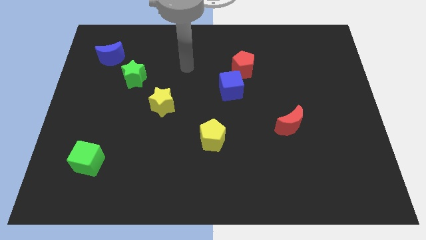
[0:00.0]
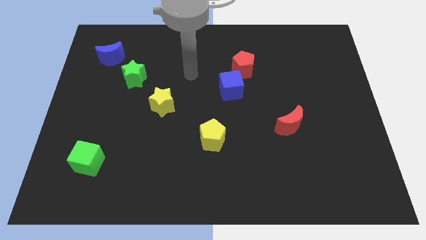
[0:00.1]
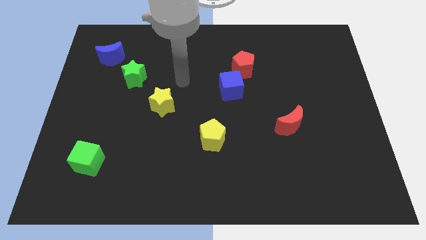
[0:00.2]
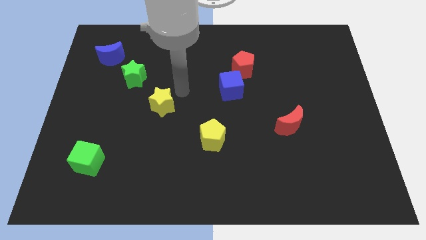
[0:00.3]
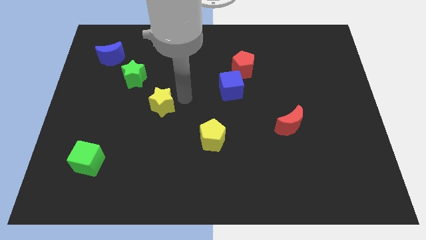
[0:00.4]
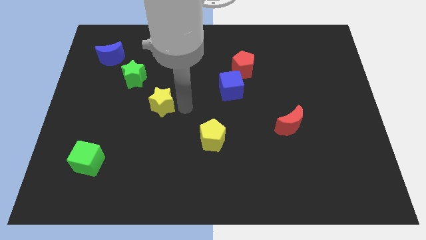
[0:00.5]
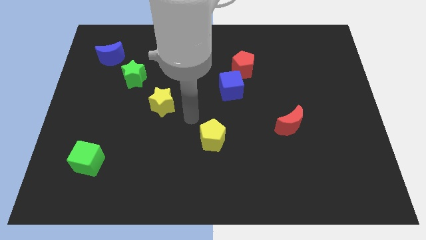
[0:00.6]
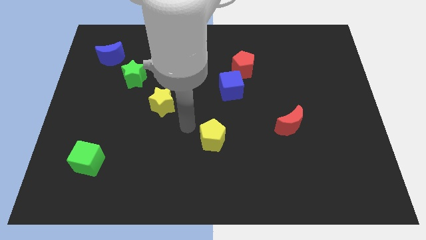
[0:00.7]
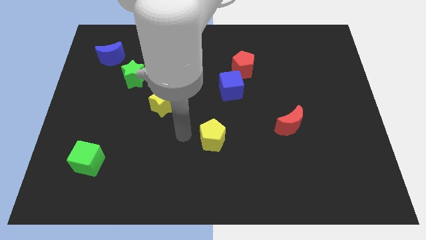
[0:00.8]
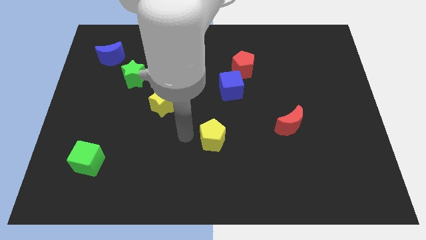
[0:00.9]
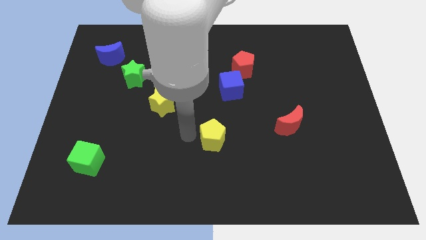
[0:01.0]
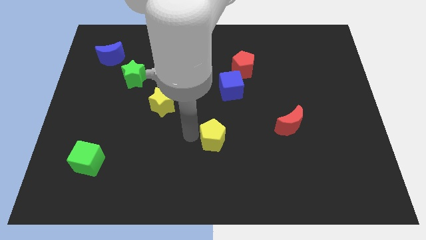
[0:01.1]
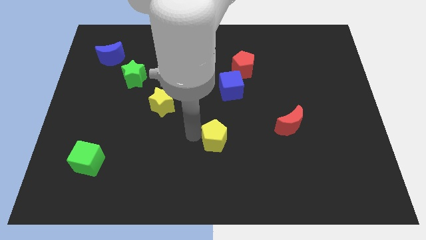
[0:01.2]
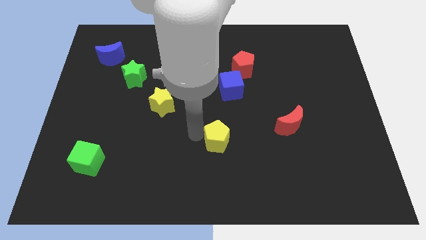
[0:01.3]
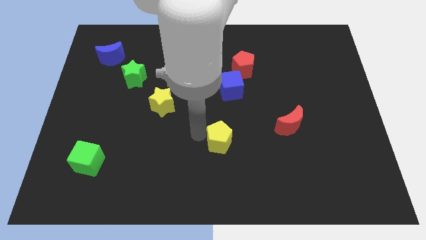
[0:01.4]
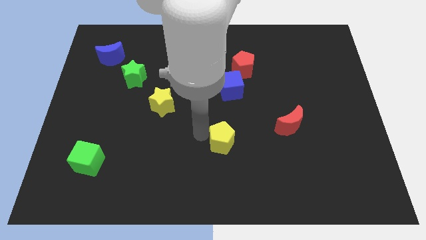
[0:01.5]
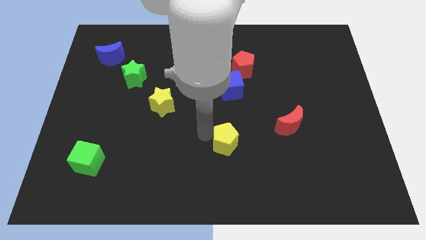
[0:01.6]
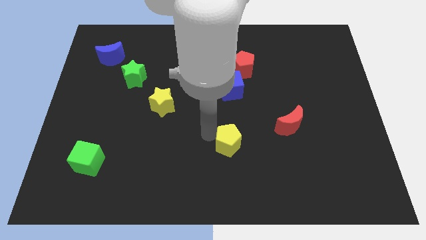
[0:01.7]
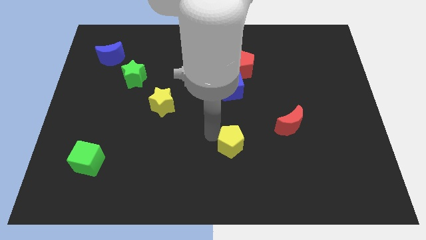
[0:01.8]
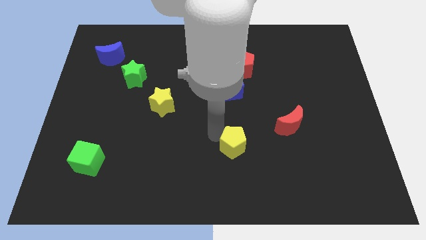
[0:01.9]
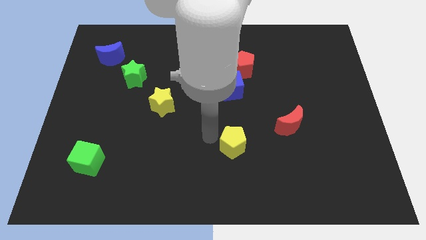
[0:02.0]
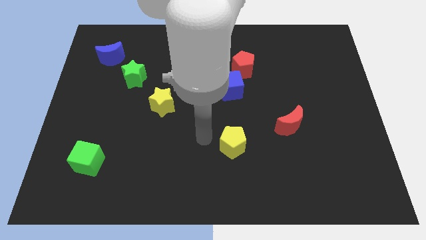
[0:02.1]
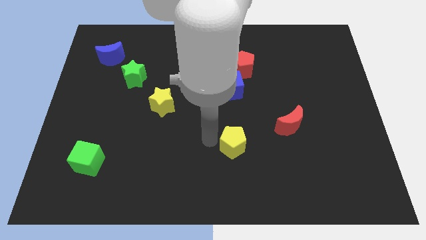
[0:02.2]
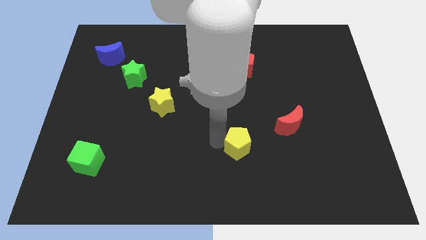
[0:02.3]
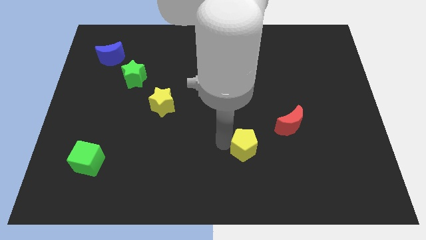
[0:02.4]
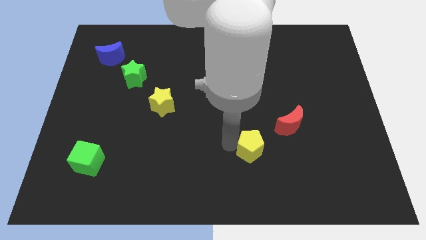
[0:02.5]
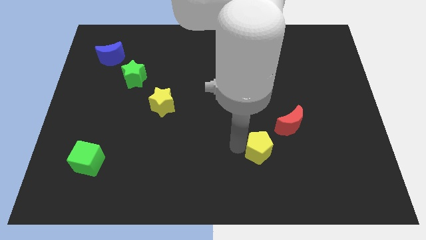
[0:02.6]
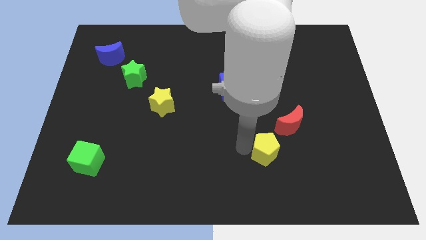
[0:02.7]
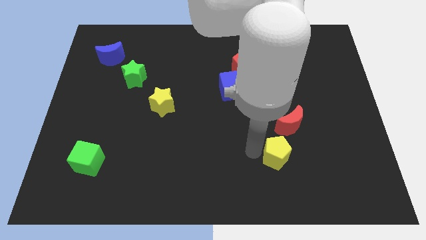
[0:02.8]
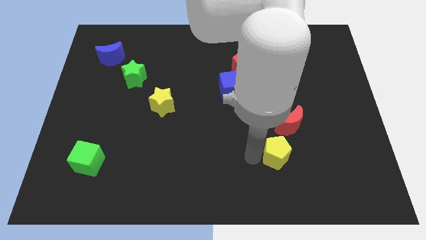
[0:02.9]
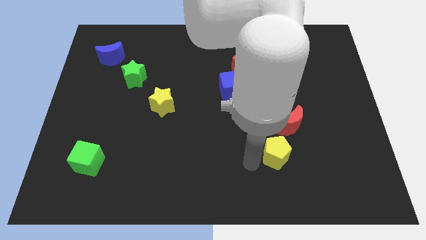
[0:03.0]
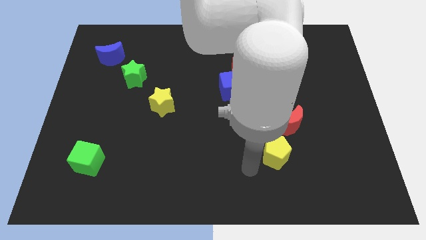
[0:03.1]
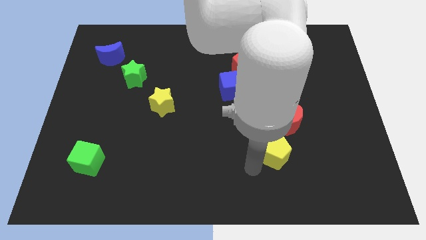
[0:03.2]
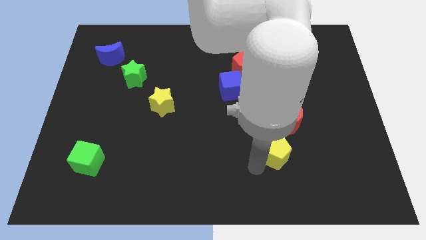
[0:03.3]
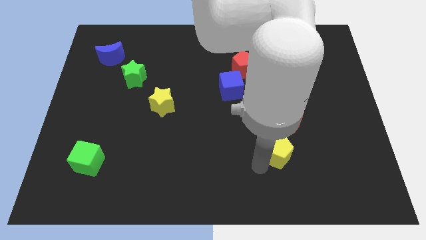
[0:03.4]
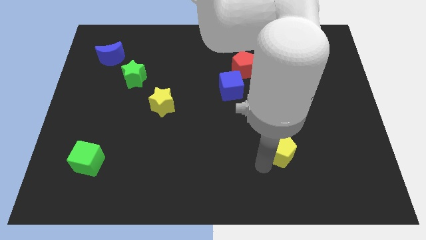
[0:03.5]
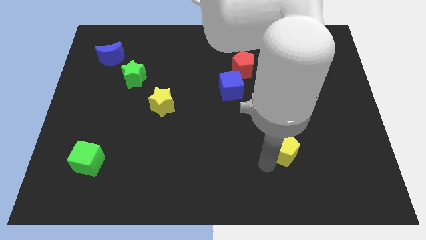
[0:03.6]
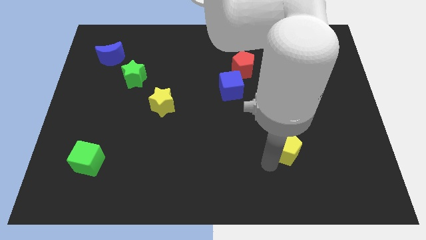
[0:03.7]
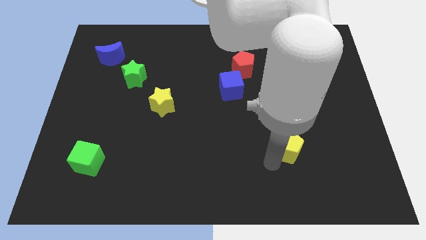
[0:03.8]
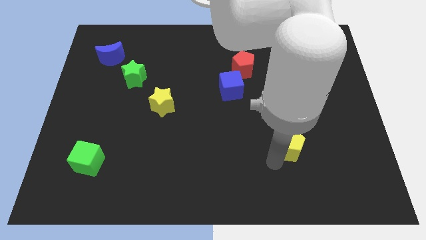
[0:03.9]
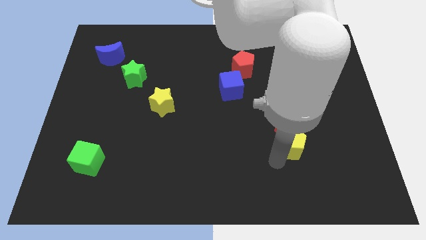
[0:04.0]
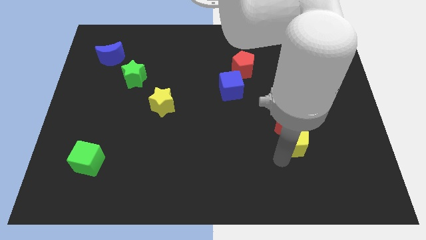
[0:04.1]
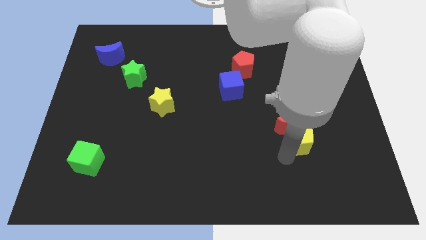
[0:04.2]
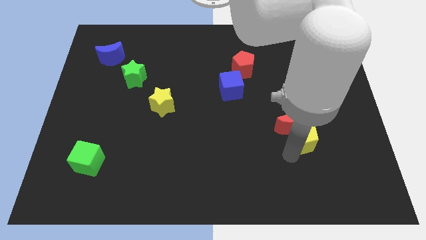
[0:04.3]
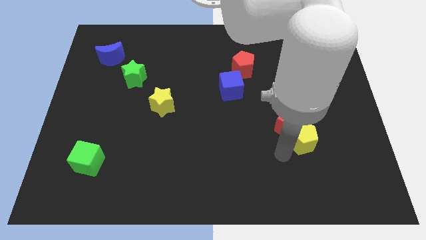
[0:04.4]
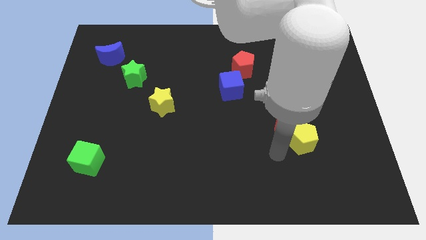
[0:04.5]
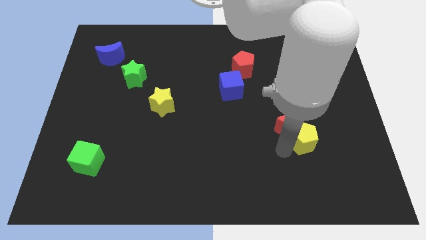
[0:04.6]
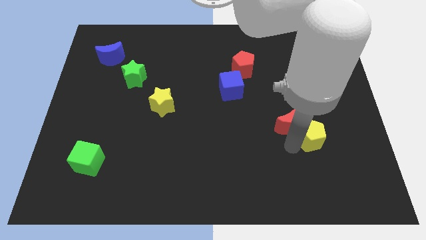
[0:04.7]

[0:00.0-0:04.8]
put the yellow pentagon just right of the red moon

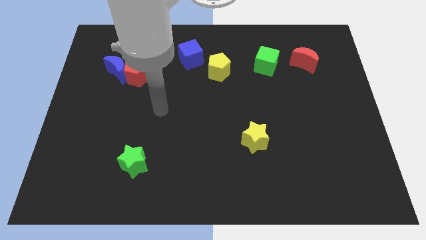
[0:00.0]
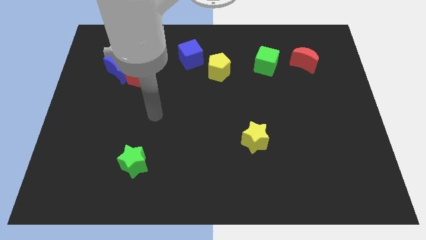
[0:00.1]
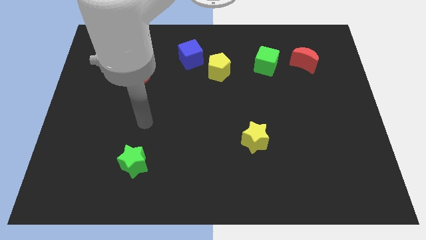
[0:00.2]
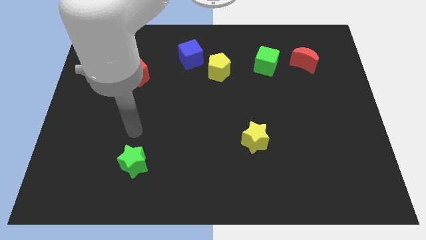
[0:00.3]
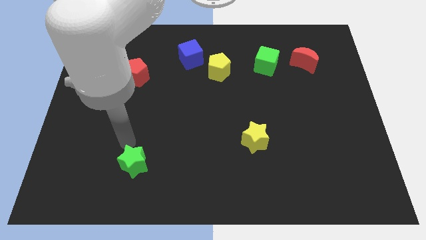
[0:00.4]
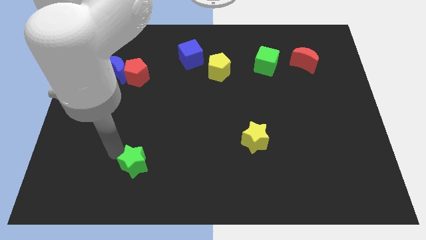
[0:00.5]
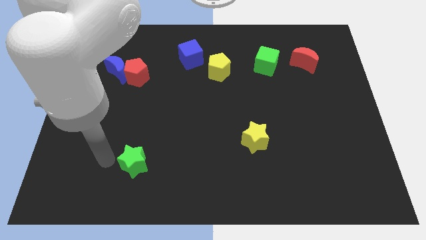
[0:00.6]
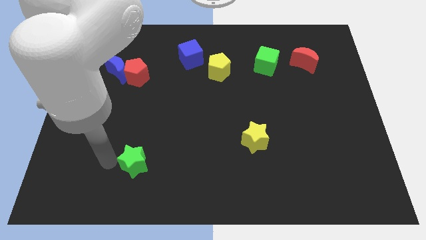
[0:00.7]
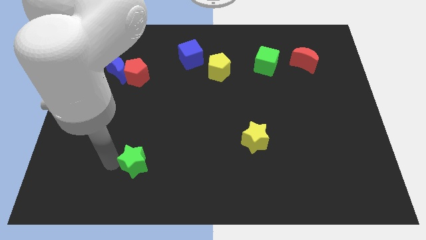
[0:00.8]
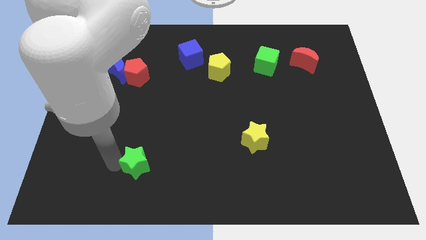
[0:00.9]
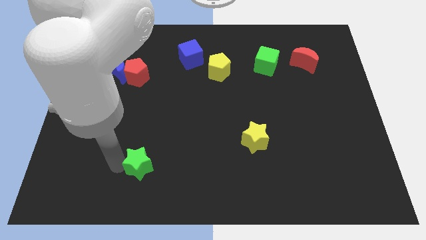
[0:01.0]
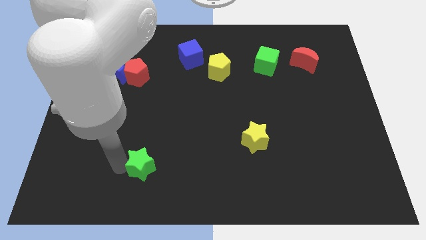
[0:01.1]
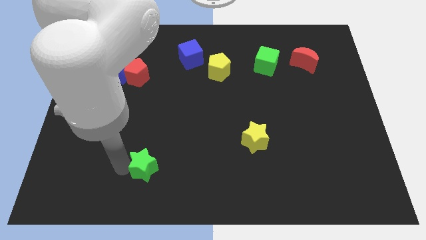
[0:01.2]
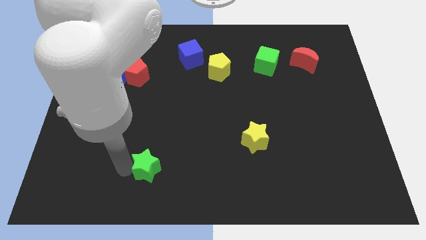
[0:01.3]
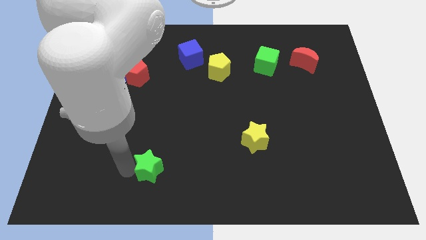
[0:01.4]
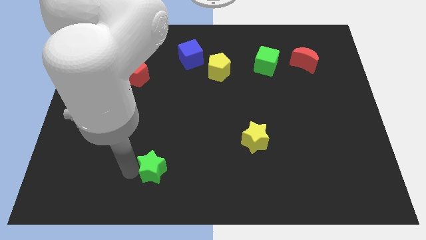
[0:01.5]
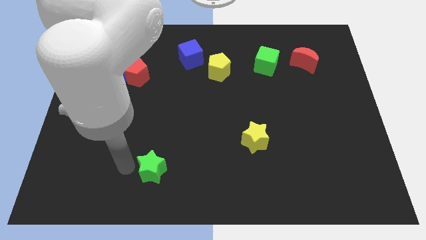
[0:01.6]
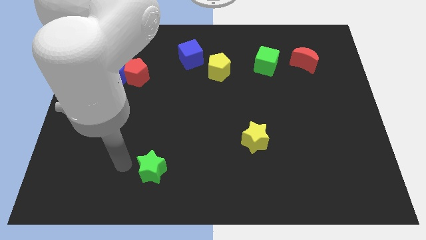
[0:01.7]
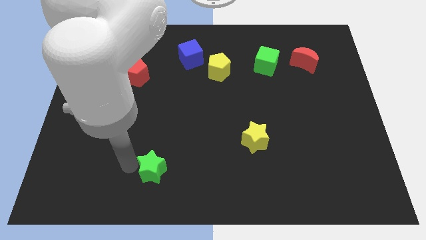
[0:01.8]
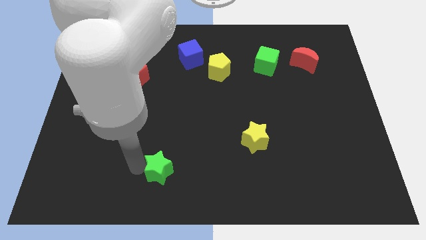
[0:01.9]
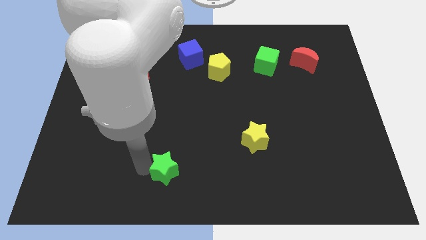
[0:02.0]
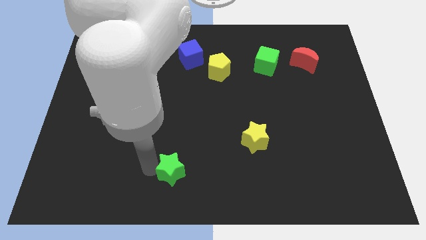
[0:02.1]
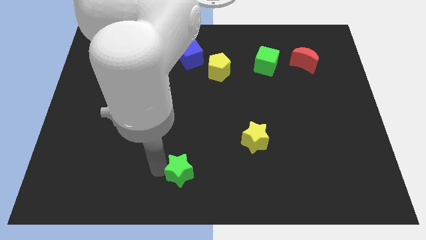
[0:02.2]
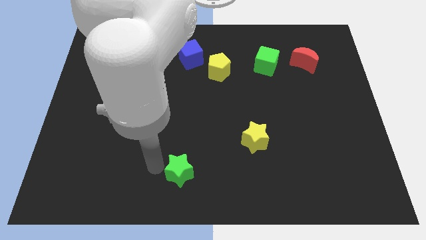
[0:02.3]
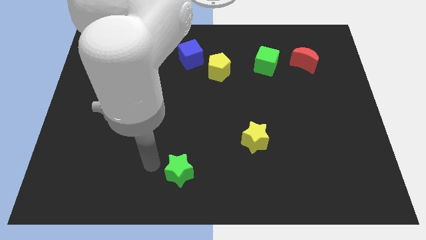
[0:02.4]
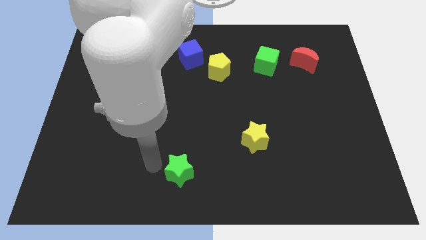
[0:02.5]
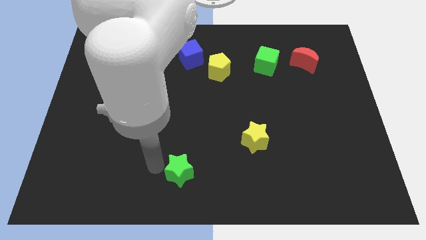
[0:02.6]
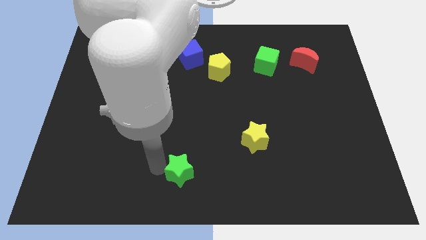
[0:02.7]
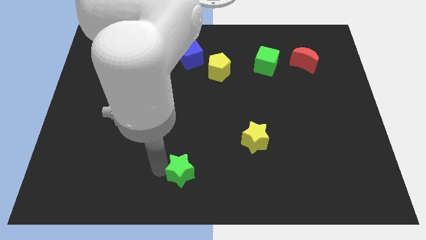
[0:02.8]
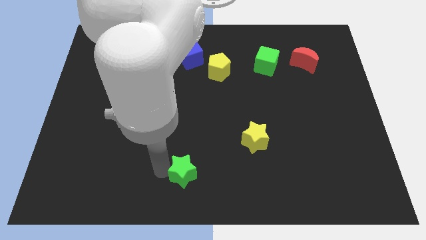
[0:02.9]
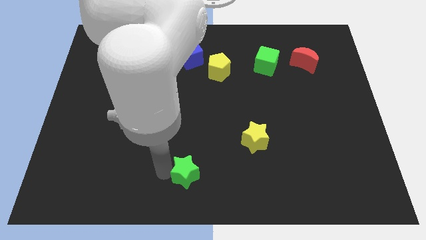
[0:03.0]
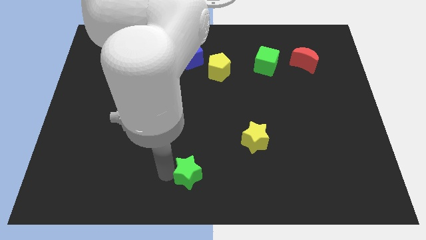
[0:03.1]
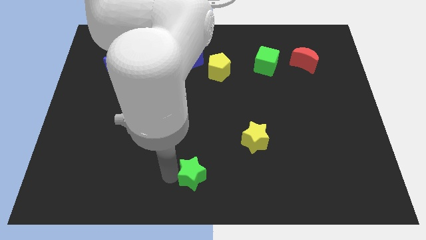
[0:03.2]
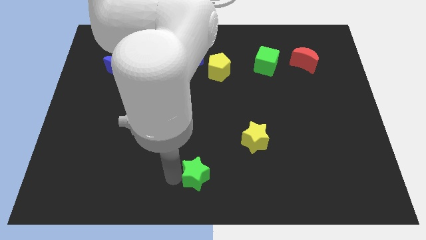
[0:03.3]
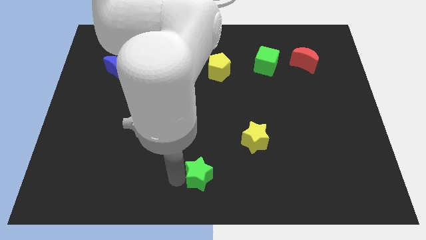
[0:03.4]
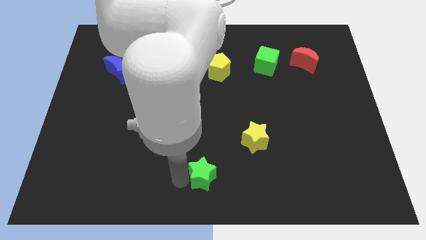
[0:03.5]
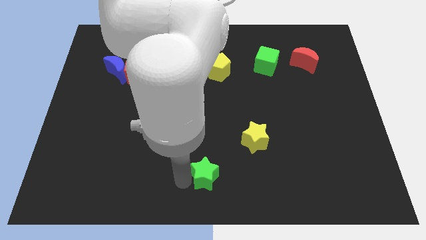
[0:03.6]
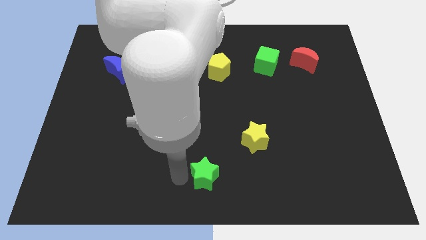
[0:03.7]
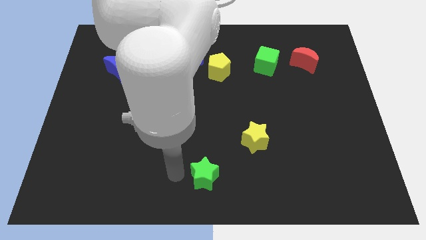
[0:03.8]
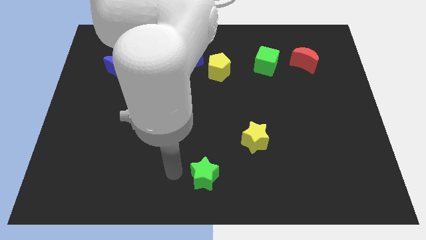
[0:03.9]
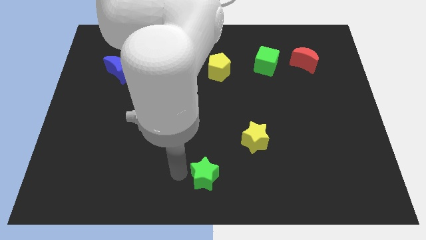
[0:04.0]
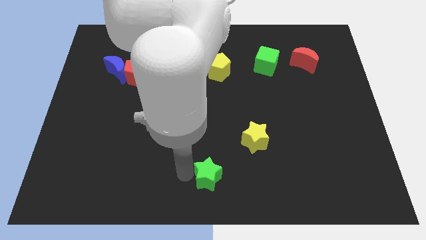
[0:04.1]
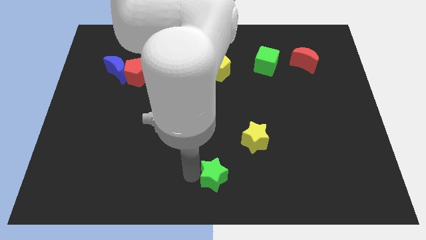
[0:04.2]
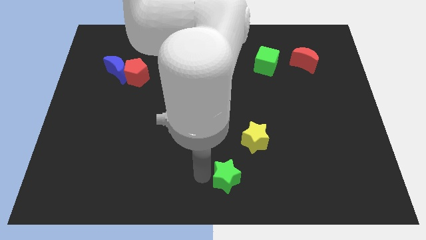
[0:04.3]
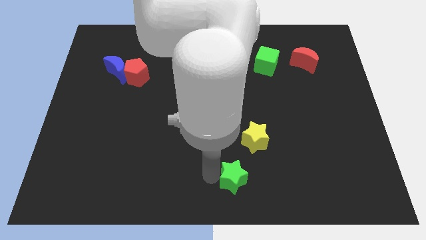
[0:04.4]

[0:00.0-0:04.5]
slide the green star below the yellow star
